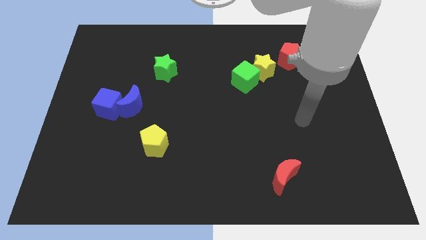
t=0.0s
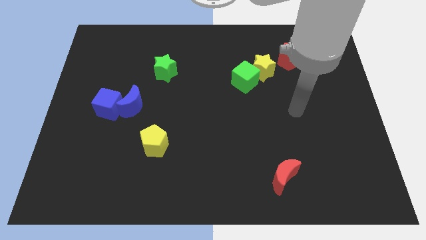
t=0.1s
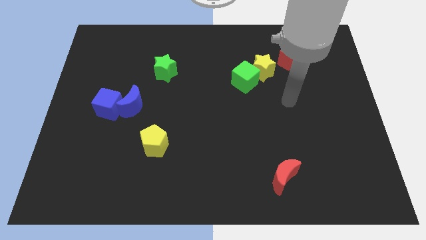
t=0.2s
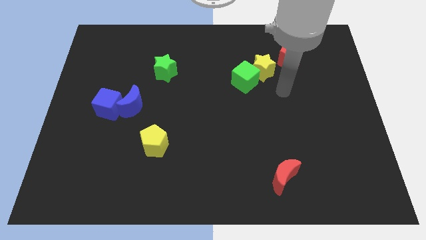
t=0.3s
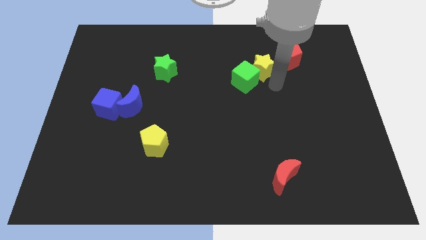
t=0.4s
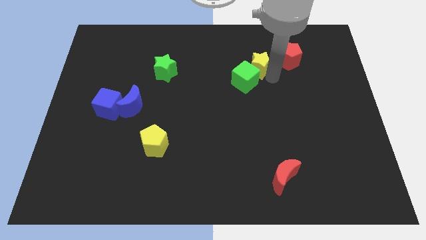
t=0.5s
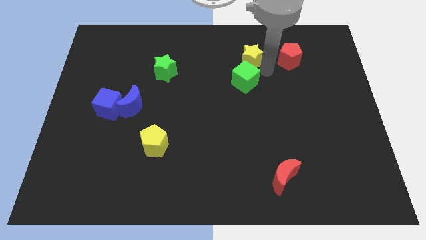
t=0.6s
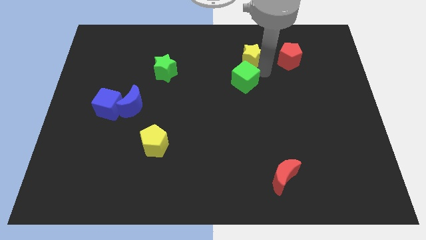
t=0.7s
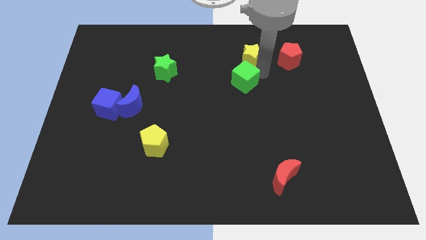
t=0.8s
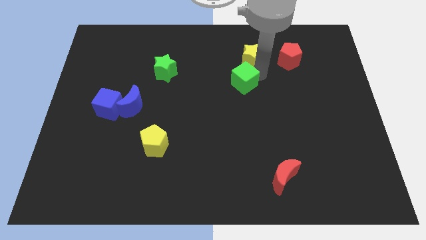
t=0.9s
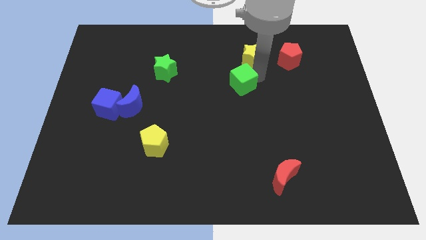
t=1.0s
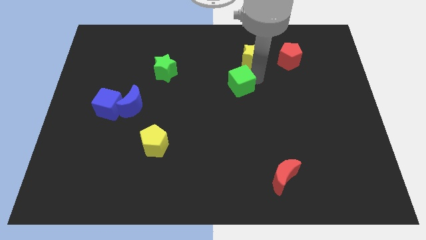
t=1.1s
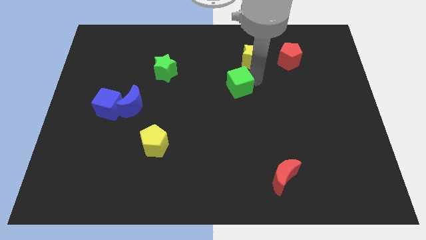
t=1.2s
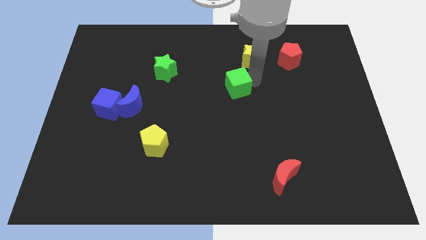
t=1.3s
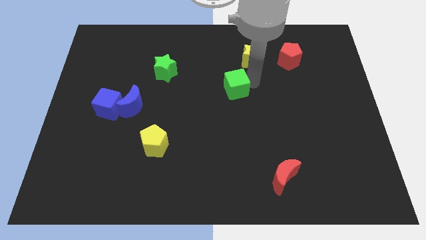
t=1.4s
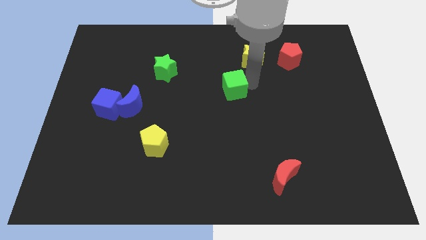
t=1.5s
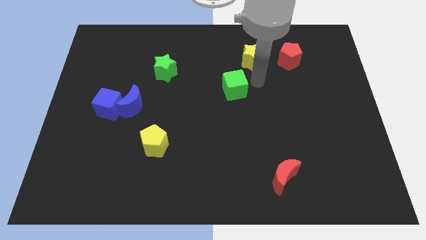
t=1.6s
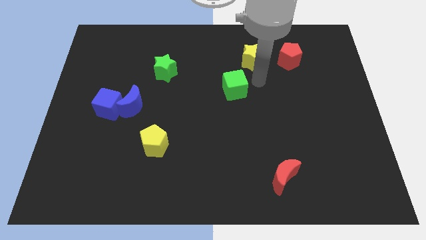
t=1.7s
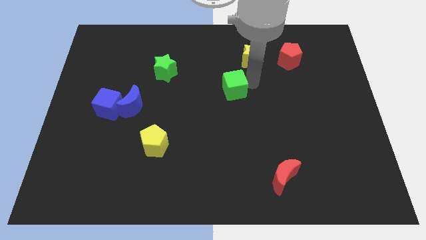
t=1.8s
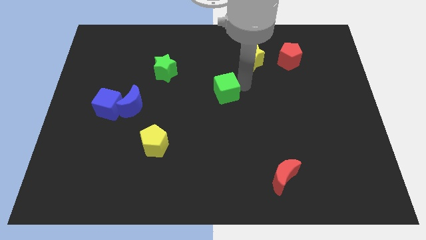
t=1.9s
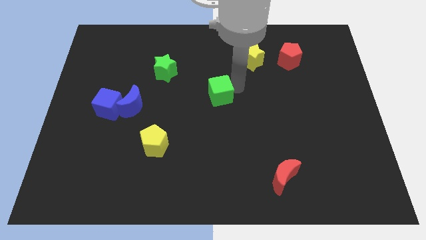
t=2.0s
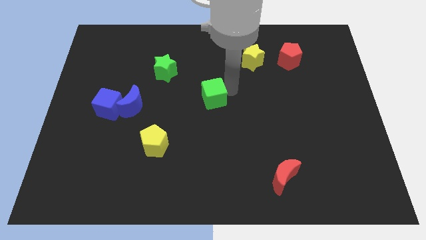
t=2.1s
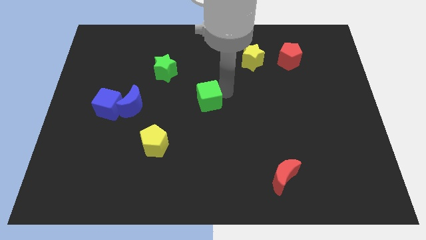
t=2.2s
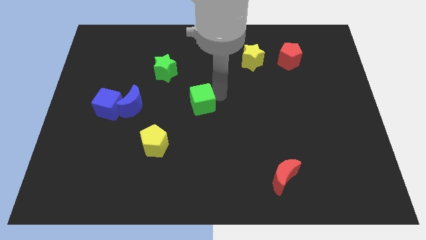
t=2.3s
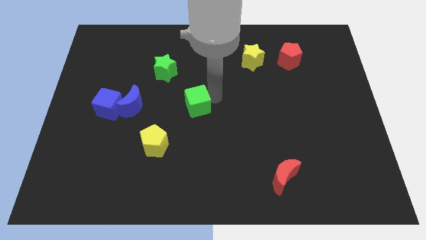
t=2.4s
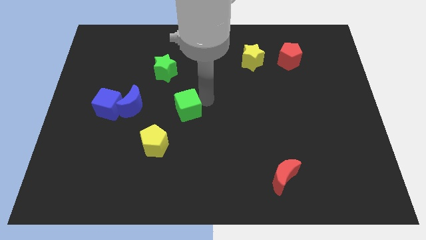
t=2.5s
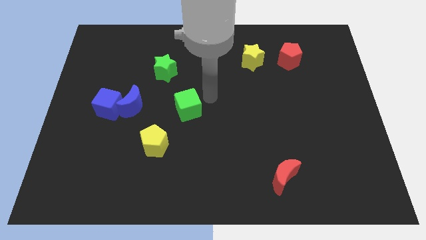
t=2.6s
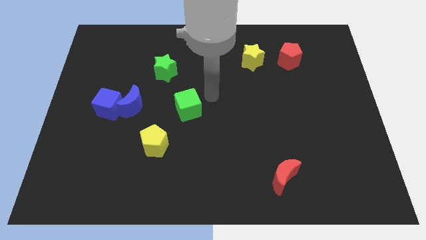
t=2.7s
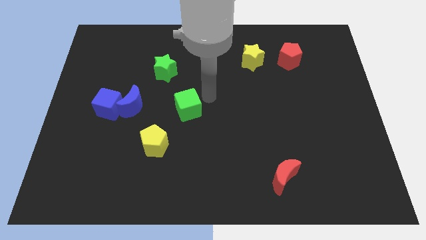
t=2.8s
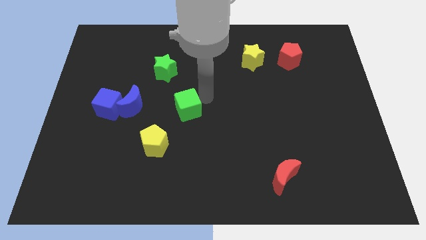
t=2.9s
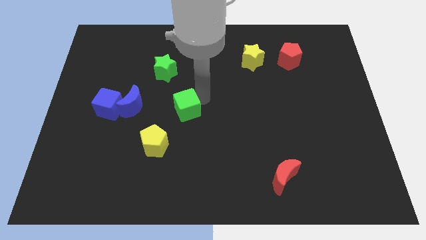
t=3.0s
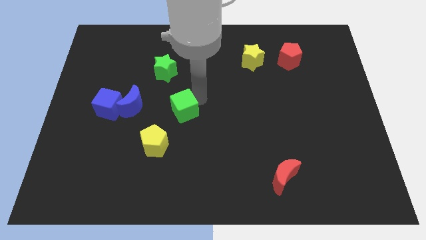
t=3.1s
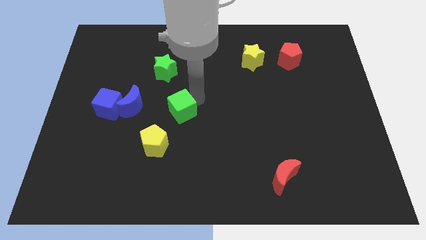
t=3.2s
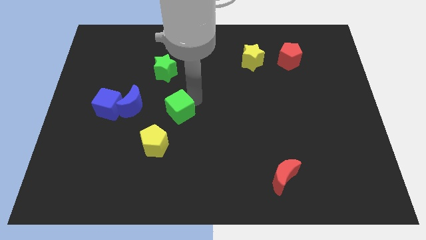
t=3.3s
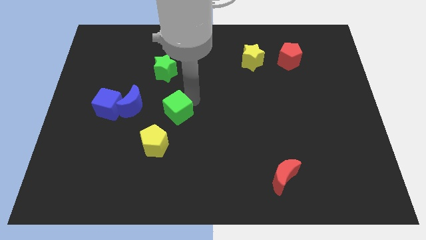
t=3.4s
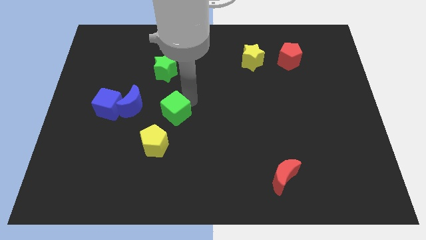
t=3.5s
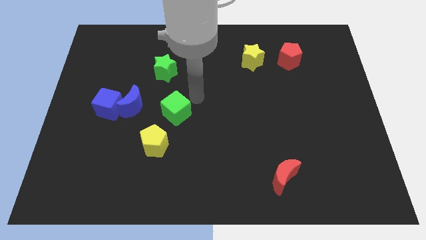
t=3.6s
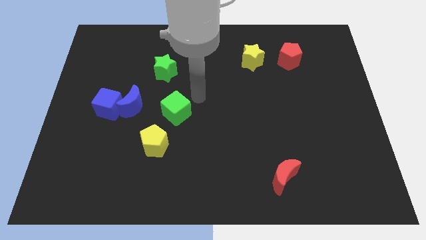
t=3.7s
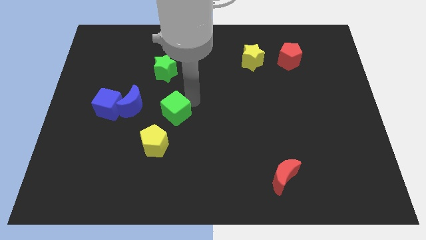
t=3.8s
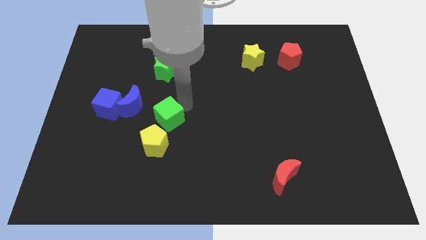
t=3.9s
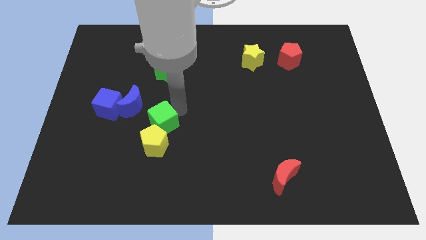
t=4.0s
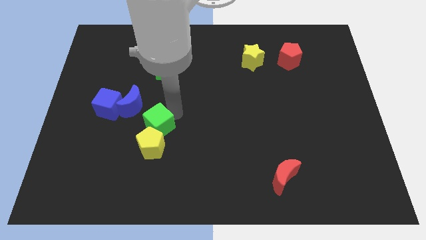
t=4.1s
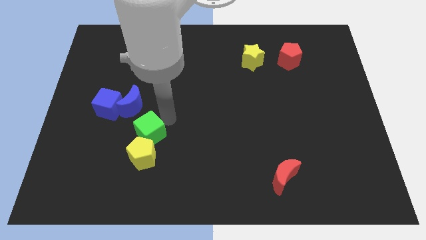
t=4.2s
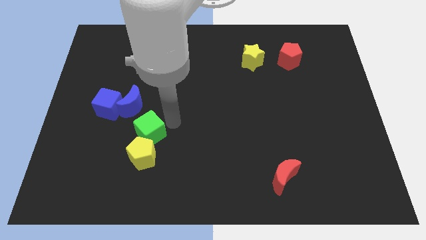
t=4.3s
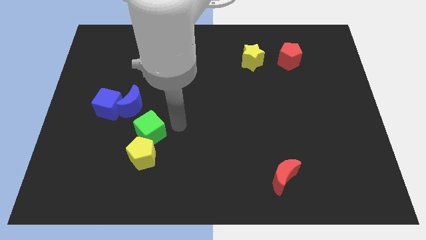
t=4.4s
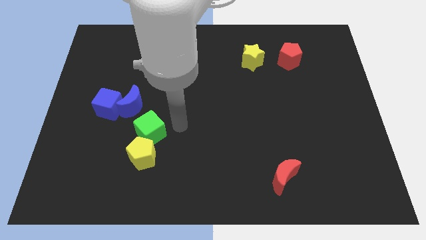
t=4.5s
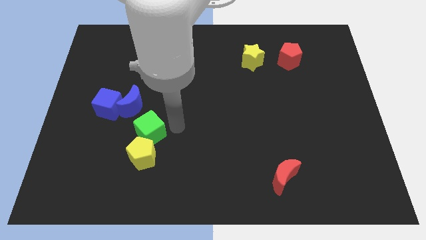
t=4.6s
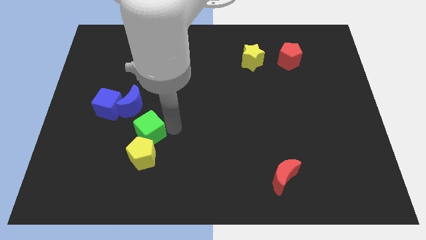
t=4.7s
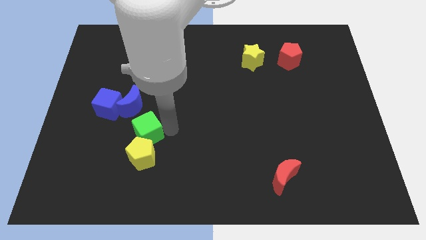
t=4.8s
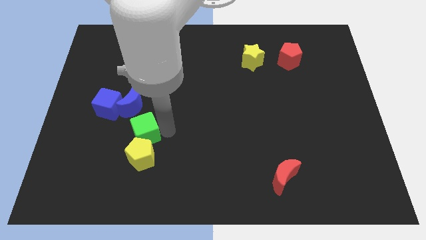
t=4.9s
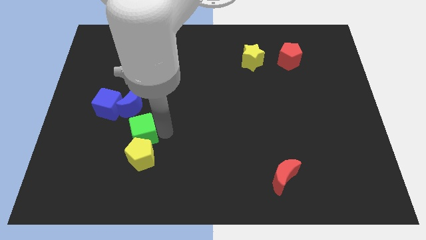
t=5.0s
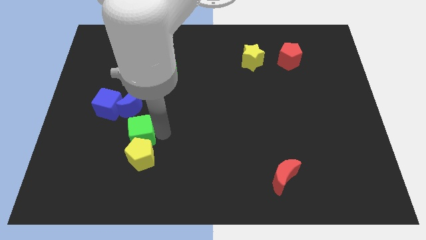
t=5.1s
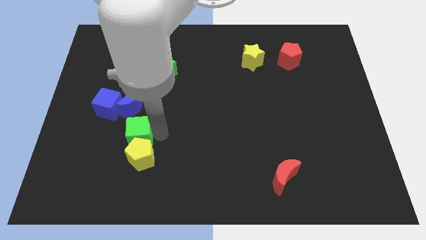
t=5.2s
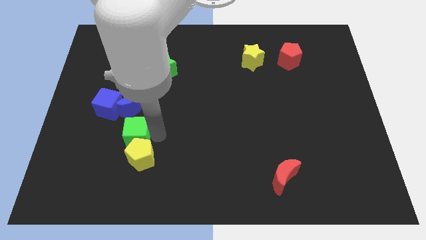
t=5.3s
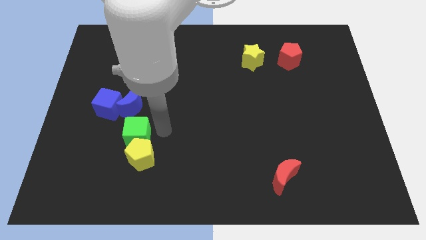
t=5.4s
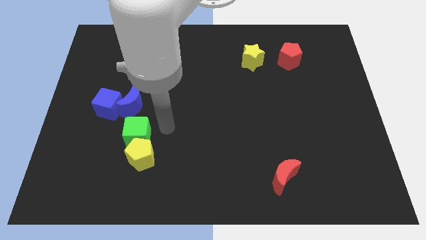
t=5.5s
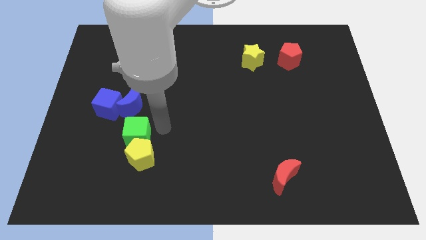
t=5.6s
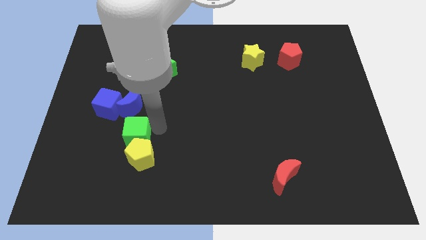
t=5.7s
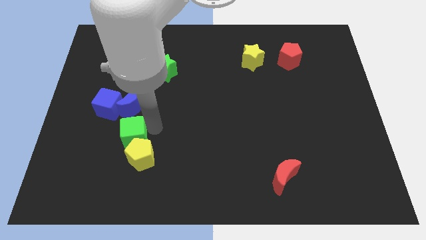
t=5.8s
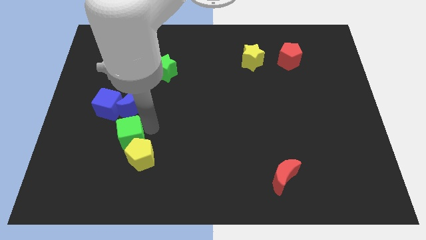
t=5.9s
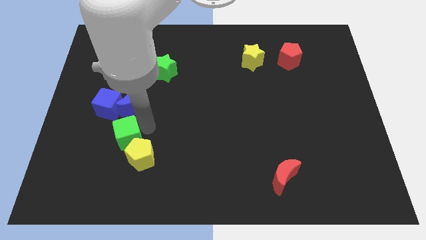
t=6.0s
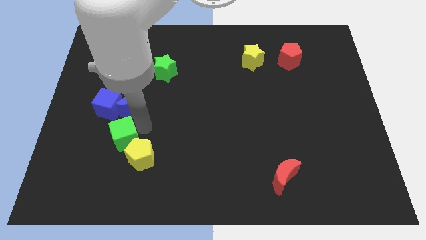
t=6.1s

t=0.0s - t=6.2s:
put the green cube below the blue cube
